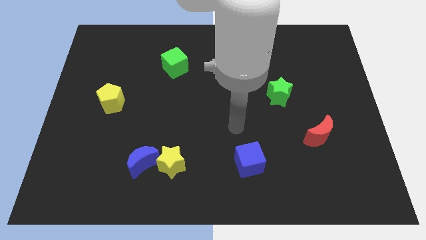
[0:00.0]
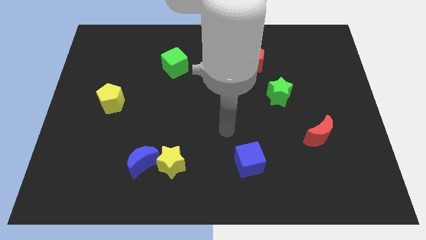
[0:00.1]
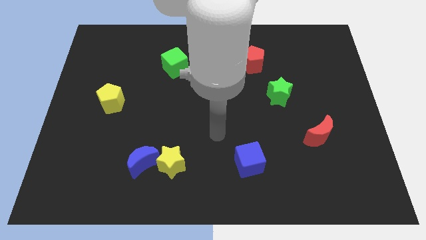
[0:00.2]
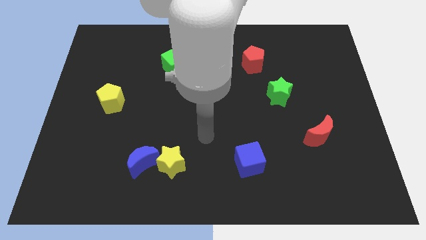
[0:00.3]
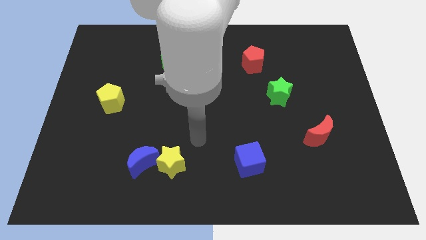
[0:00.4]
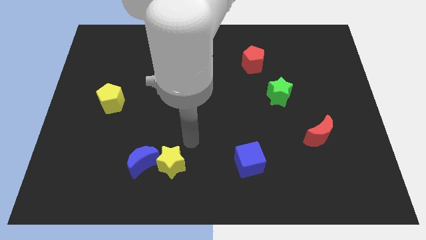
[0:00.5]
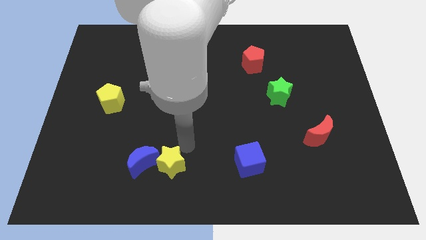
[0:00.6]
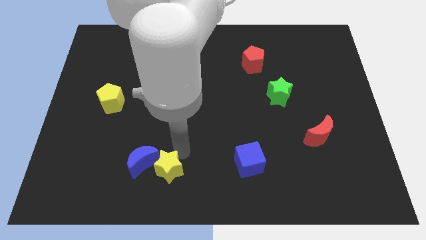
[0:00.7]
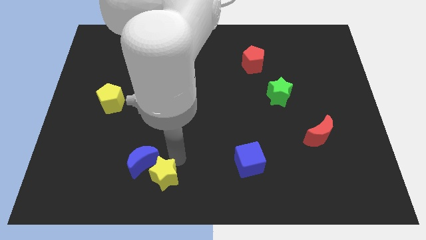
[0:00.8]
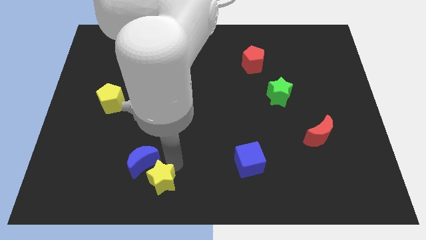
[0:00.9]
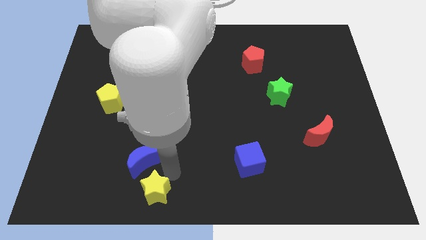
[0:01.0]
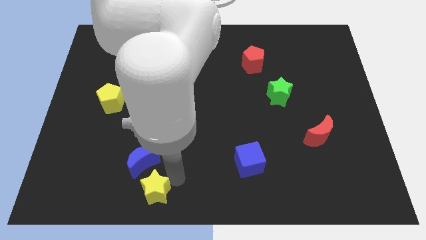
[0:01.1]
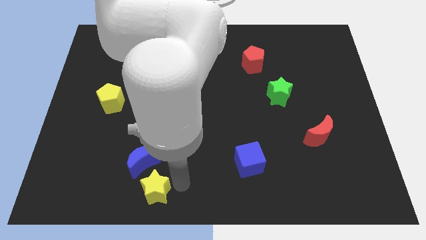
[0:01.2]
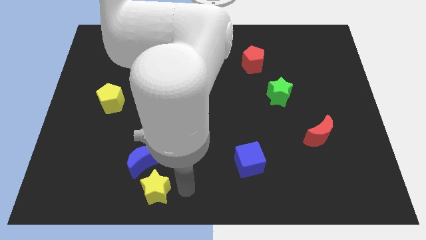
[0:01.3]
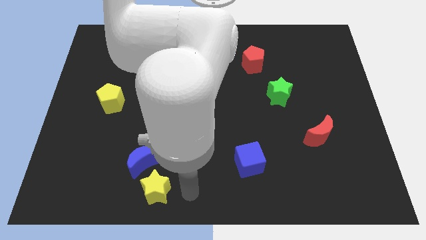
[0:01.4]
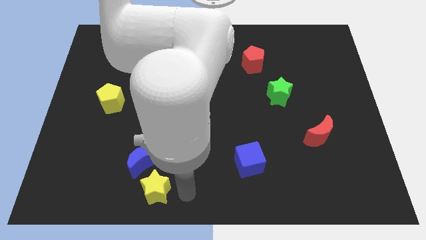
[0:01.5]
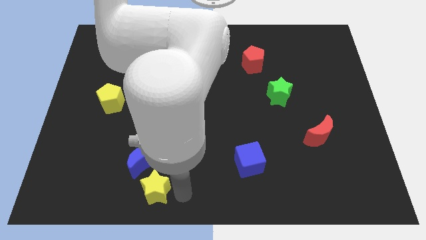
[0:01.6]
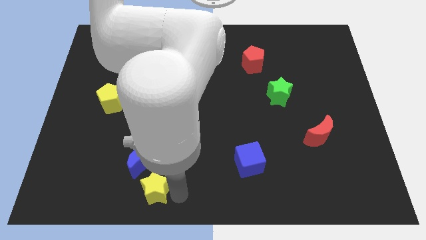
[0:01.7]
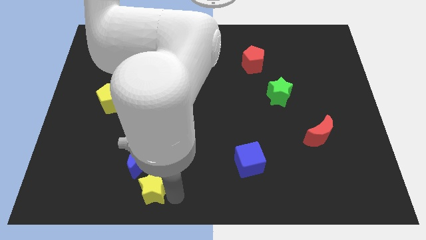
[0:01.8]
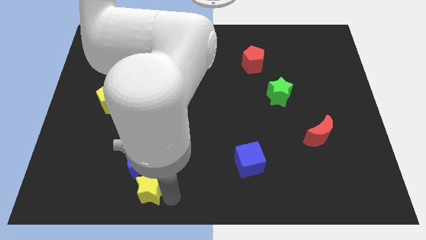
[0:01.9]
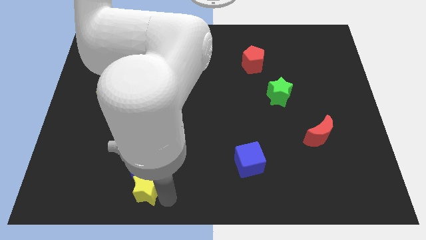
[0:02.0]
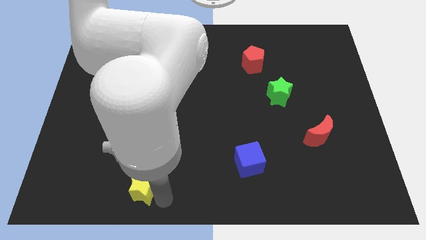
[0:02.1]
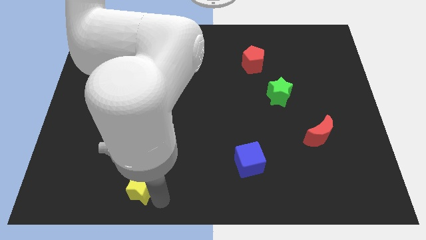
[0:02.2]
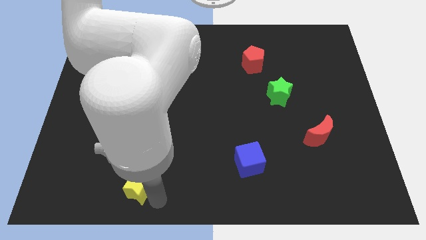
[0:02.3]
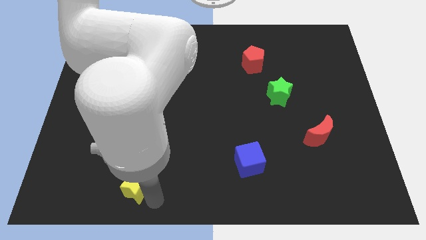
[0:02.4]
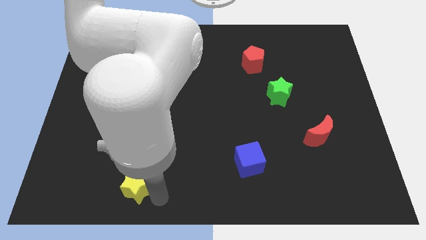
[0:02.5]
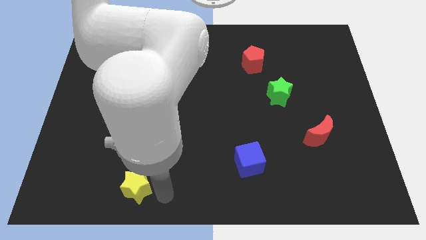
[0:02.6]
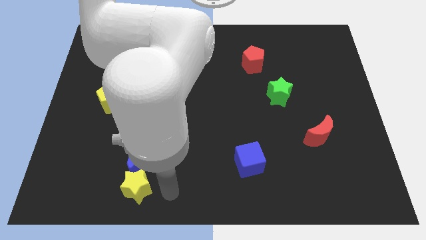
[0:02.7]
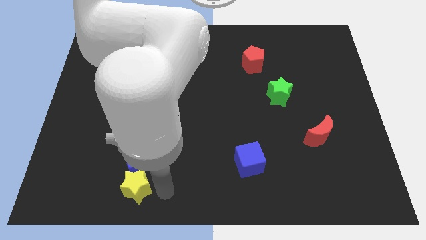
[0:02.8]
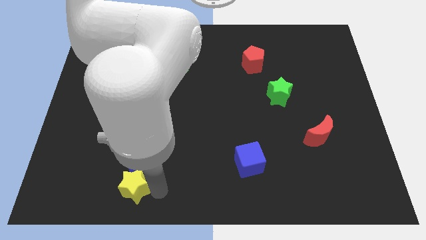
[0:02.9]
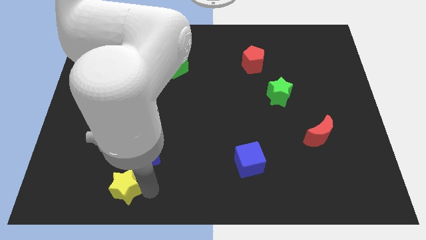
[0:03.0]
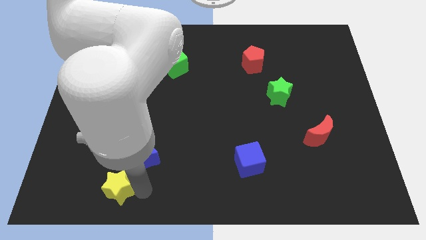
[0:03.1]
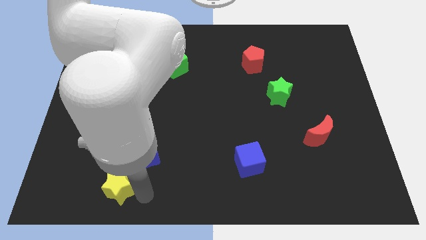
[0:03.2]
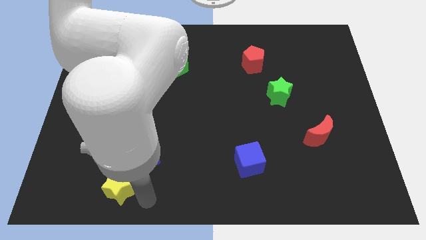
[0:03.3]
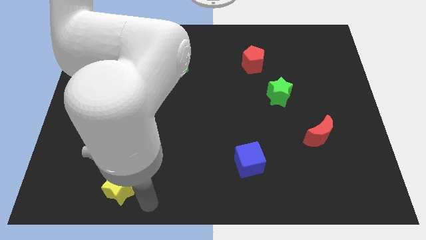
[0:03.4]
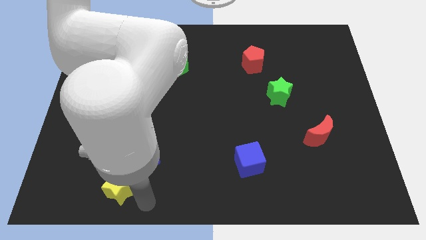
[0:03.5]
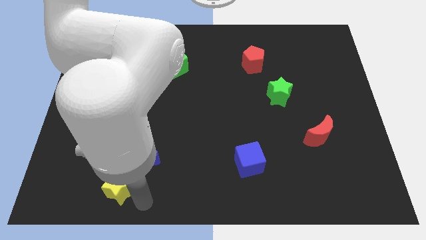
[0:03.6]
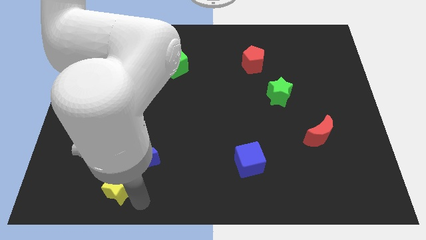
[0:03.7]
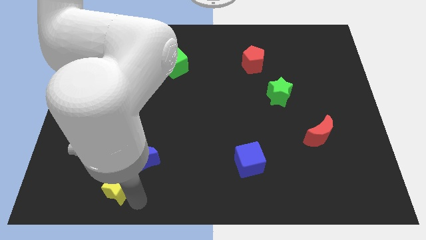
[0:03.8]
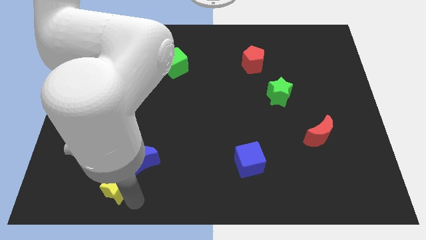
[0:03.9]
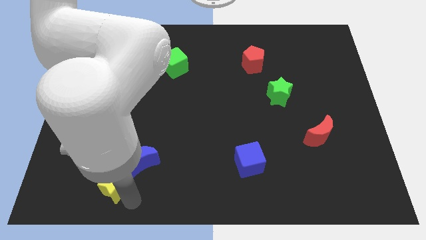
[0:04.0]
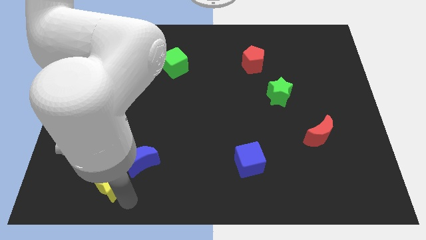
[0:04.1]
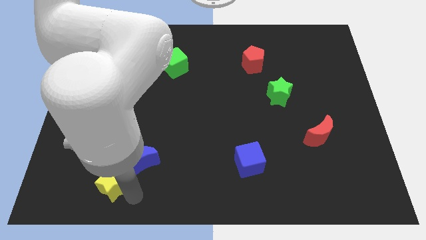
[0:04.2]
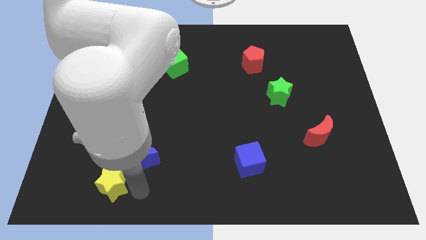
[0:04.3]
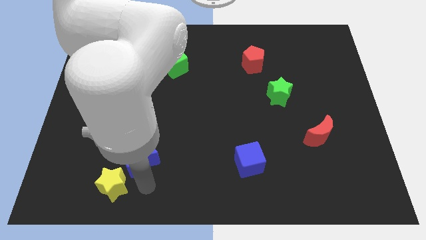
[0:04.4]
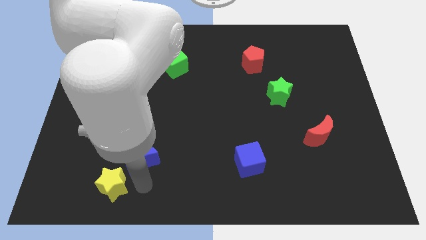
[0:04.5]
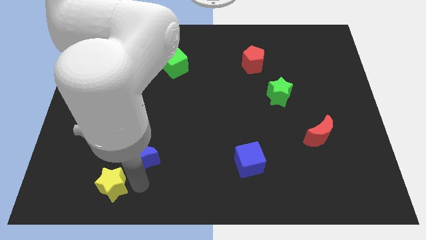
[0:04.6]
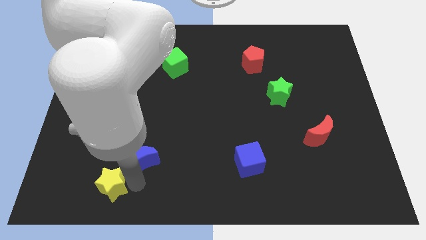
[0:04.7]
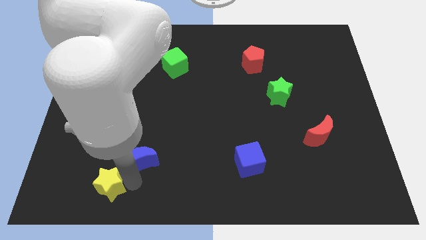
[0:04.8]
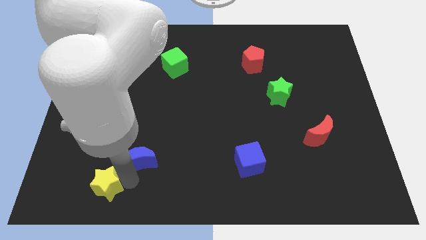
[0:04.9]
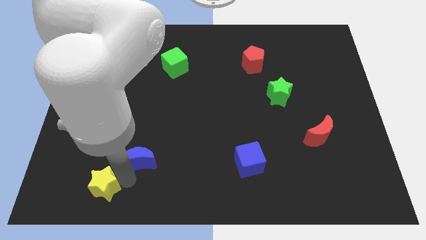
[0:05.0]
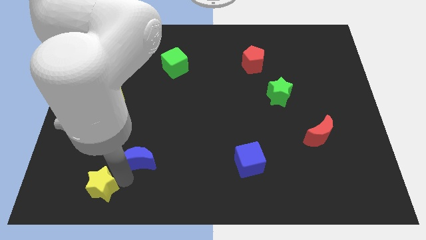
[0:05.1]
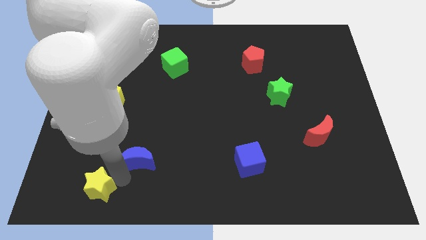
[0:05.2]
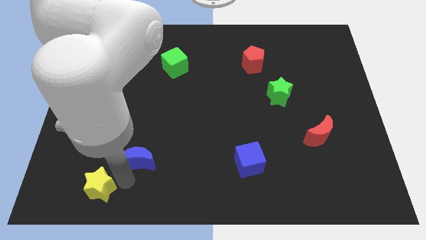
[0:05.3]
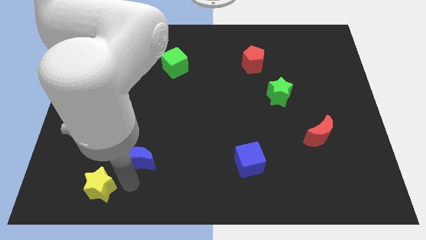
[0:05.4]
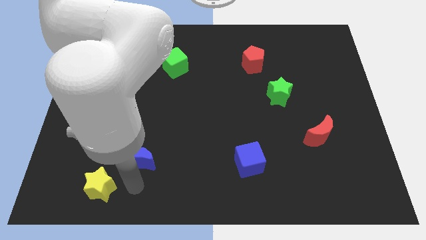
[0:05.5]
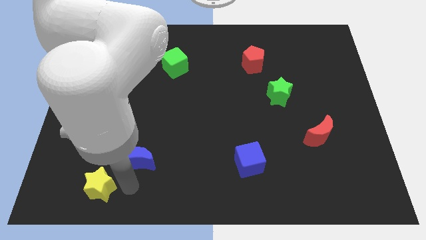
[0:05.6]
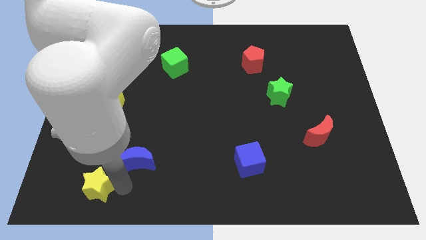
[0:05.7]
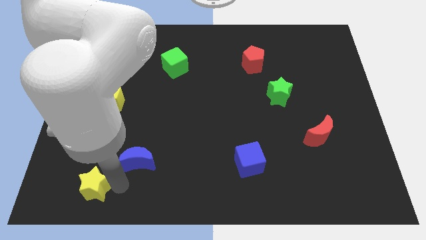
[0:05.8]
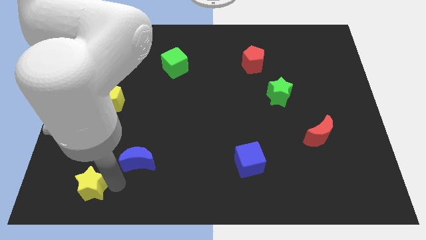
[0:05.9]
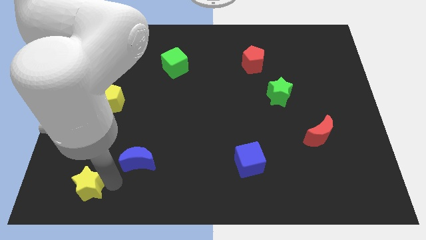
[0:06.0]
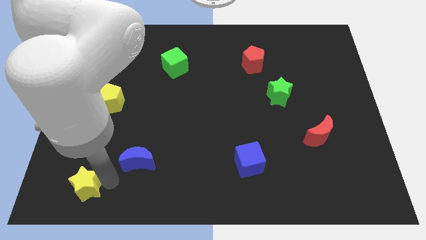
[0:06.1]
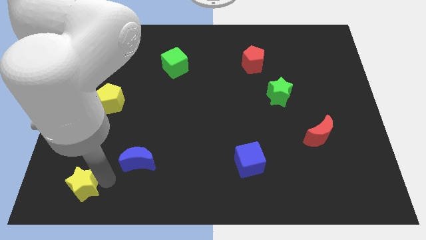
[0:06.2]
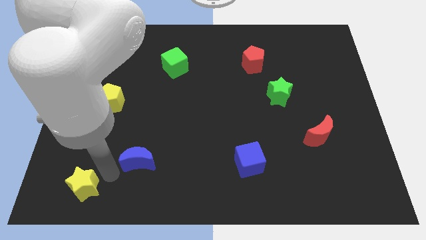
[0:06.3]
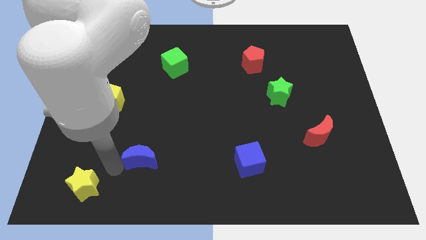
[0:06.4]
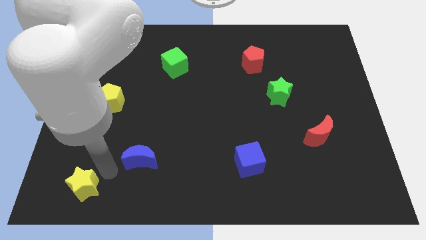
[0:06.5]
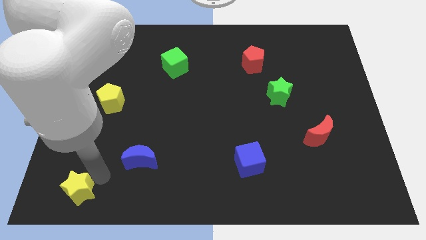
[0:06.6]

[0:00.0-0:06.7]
move the yellow star to the bottom left

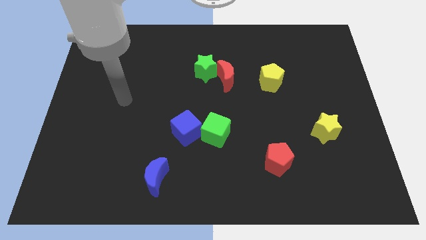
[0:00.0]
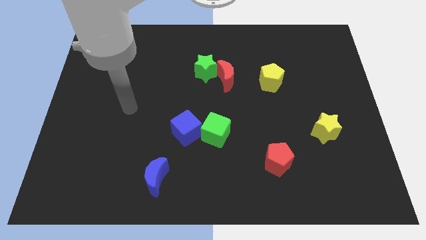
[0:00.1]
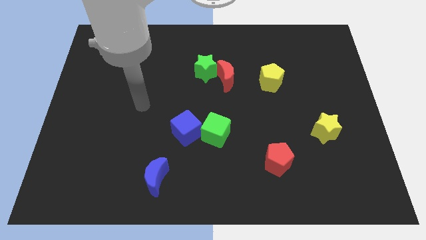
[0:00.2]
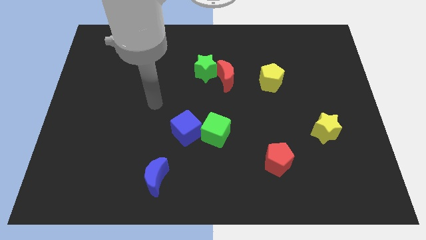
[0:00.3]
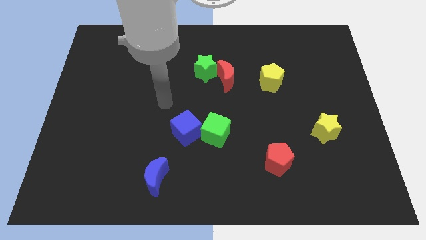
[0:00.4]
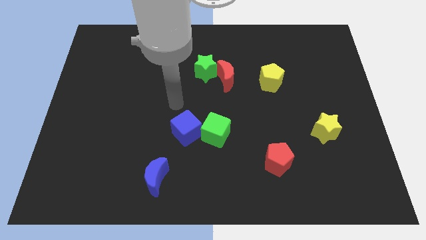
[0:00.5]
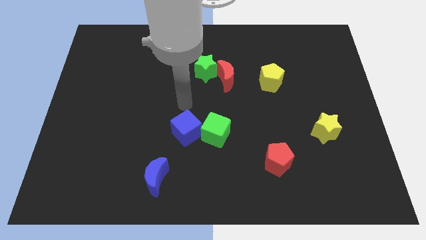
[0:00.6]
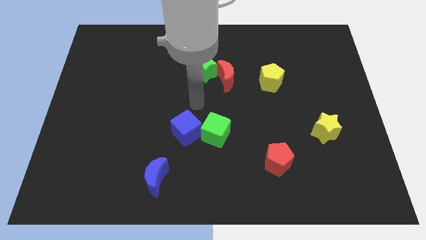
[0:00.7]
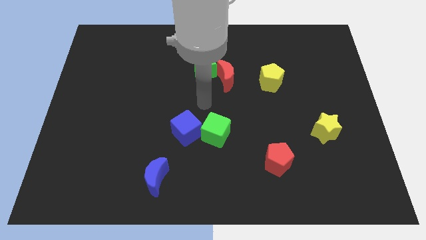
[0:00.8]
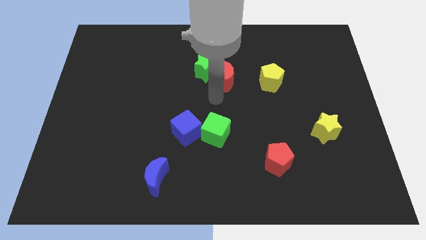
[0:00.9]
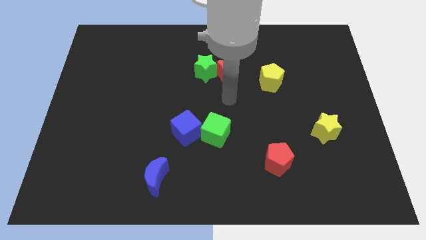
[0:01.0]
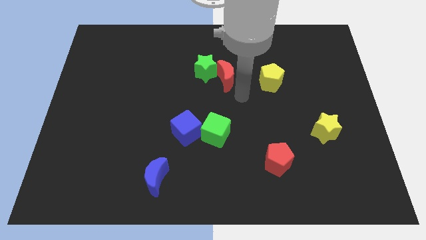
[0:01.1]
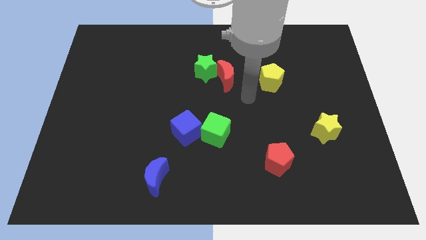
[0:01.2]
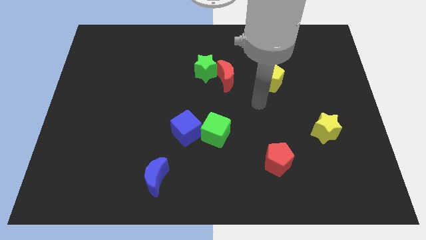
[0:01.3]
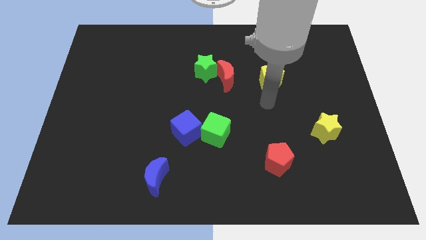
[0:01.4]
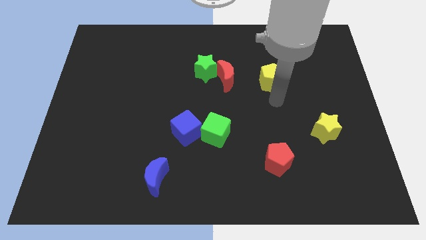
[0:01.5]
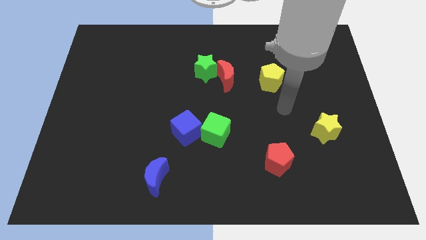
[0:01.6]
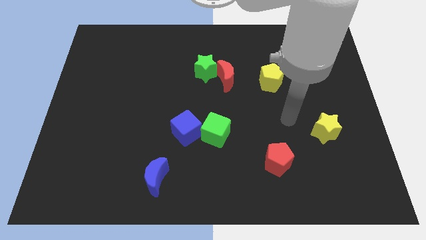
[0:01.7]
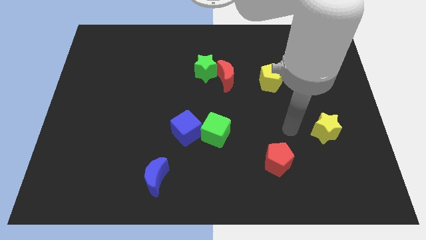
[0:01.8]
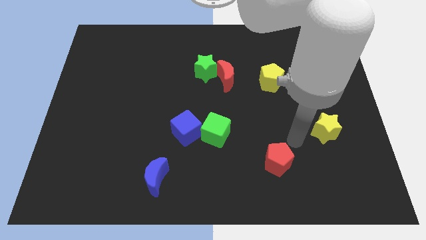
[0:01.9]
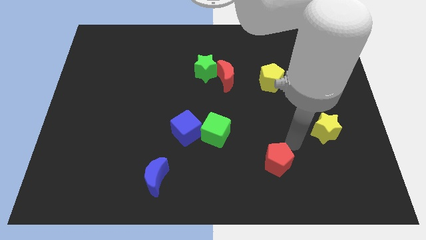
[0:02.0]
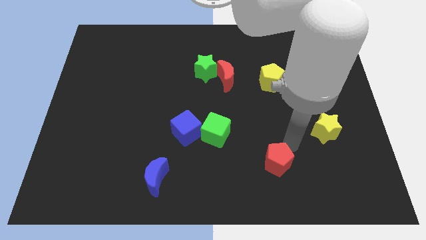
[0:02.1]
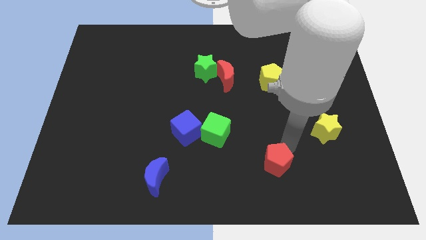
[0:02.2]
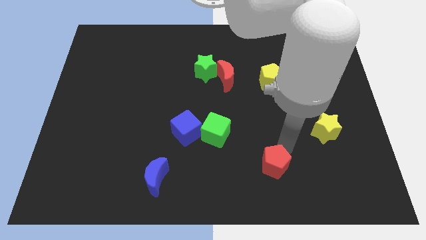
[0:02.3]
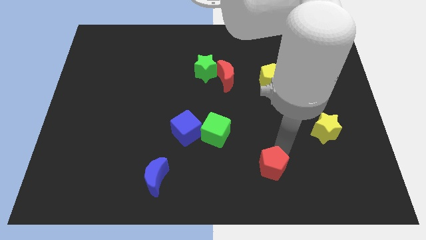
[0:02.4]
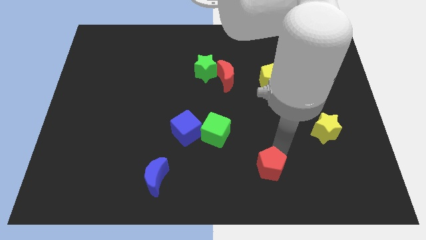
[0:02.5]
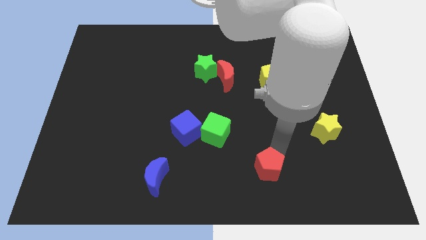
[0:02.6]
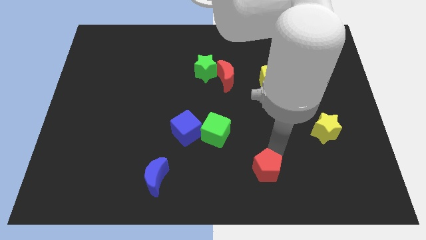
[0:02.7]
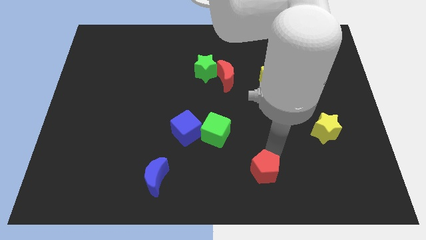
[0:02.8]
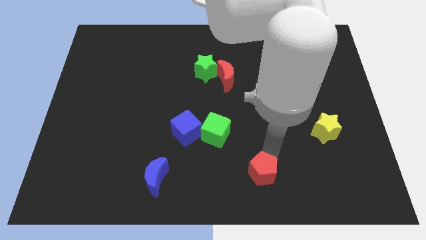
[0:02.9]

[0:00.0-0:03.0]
push the red pentagon to the bottom
